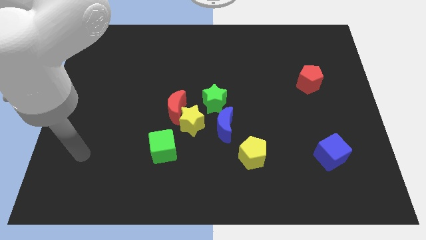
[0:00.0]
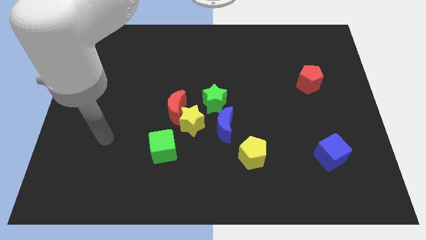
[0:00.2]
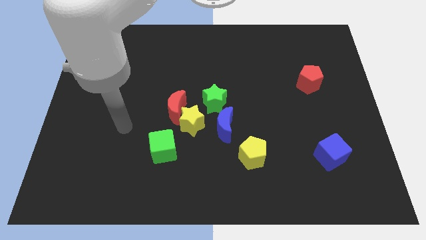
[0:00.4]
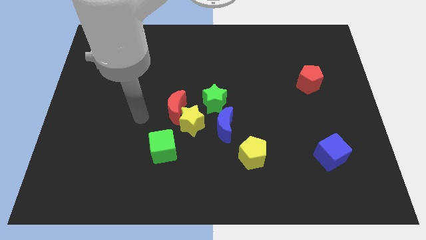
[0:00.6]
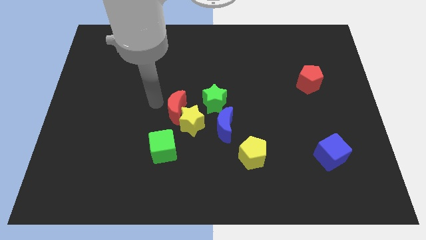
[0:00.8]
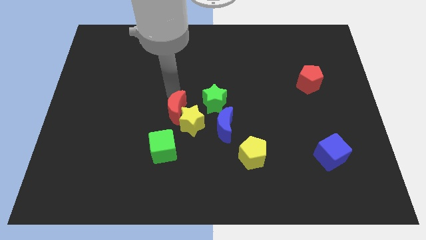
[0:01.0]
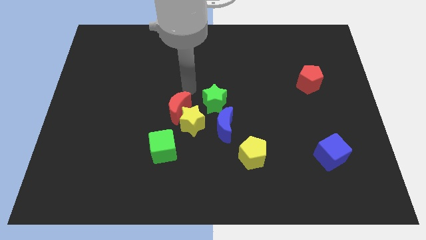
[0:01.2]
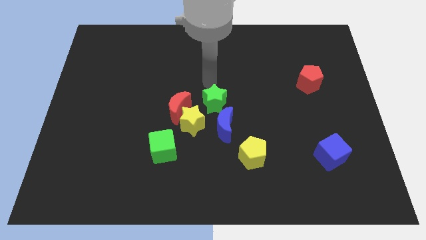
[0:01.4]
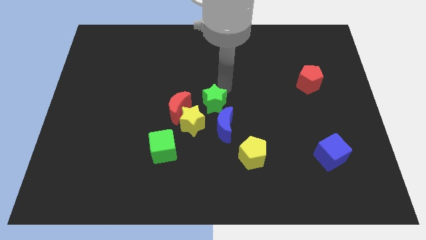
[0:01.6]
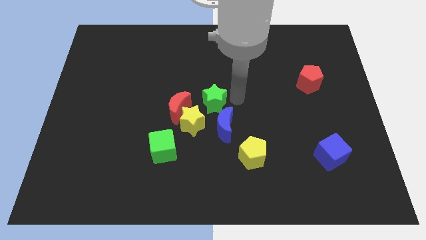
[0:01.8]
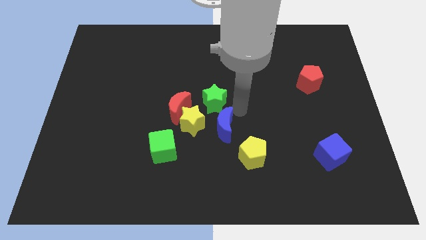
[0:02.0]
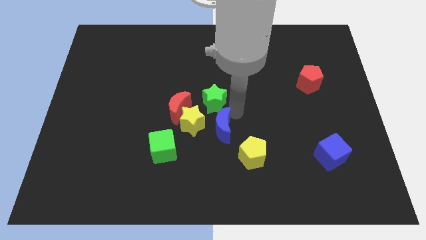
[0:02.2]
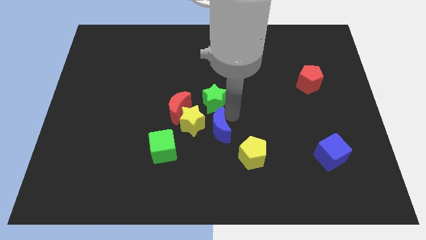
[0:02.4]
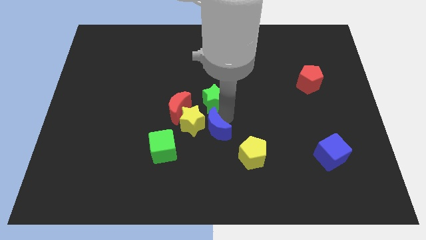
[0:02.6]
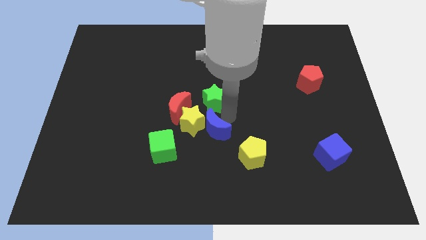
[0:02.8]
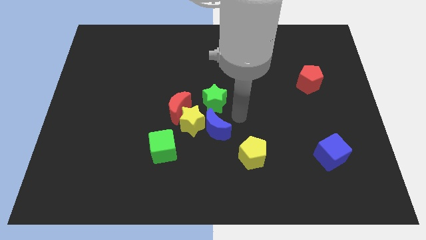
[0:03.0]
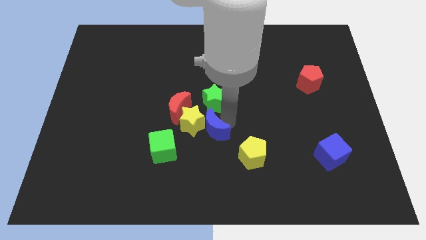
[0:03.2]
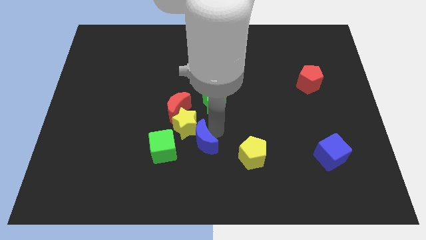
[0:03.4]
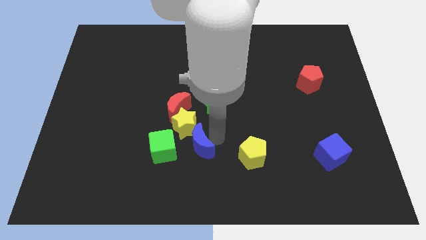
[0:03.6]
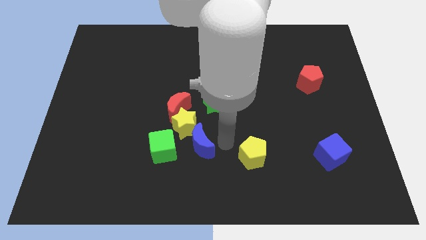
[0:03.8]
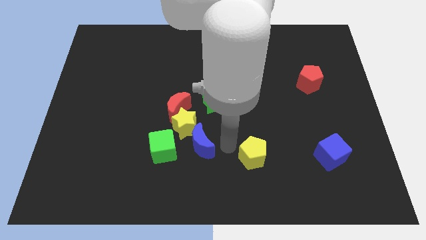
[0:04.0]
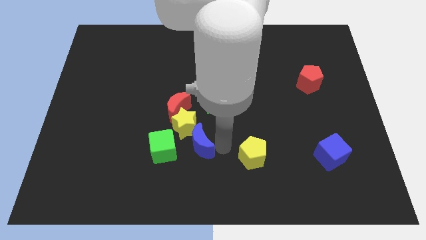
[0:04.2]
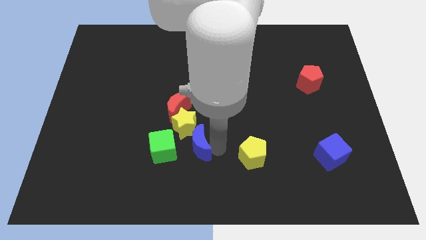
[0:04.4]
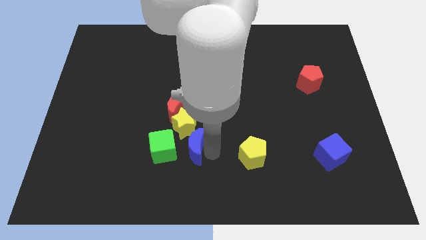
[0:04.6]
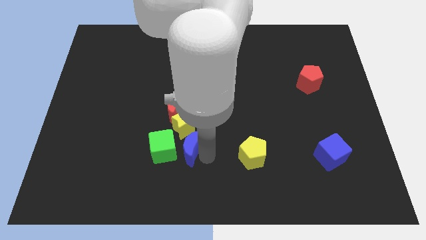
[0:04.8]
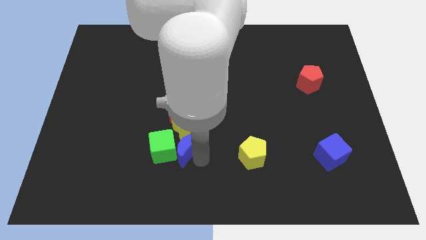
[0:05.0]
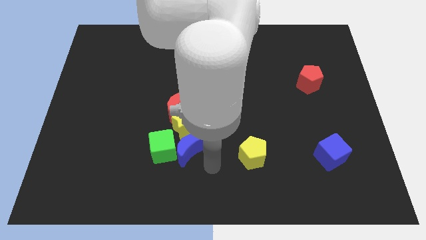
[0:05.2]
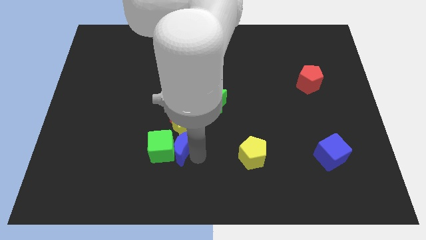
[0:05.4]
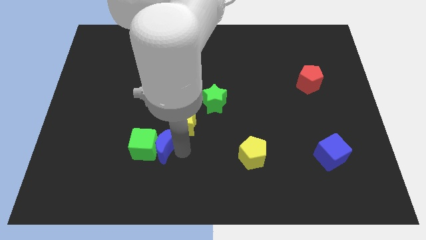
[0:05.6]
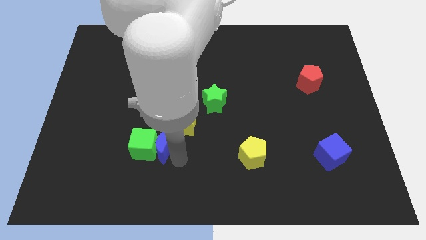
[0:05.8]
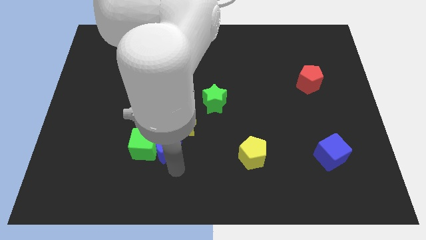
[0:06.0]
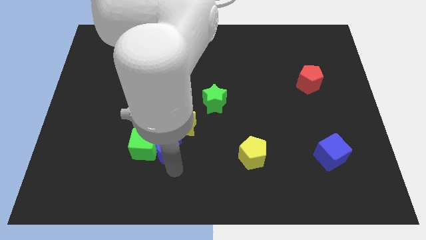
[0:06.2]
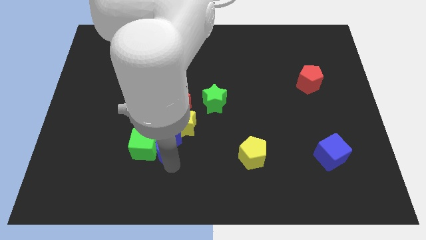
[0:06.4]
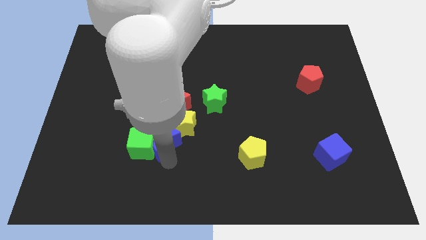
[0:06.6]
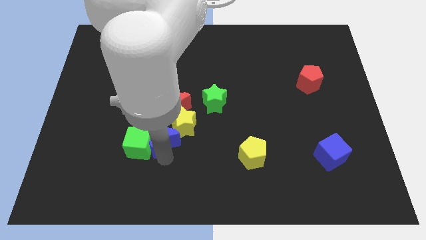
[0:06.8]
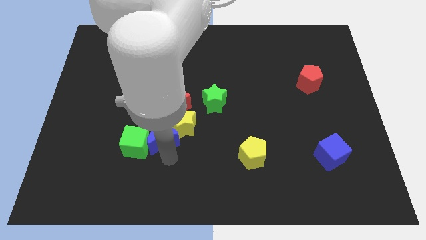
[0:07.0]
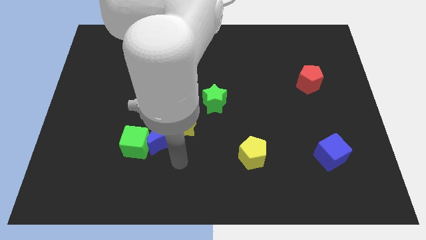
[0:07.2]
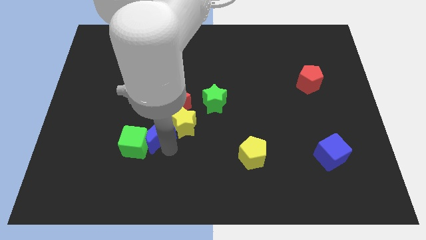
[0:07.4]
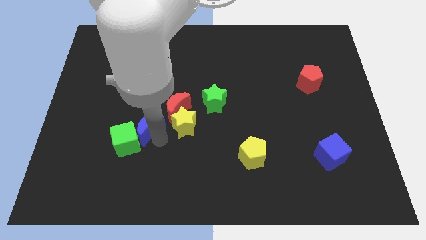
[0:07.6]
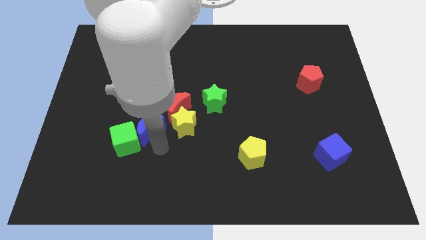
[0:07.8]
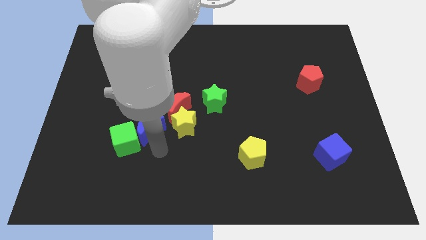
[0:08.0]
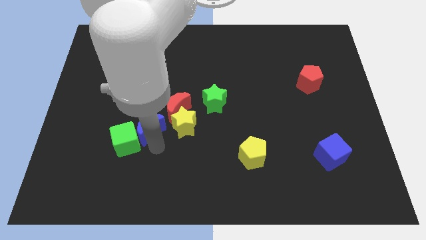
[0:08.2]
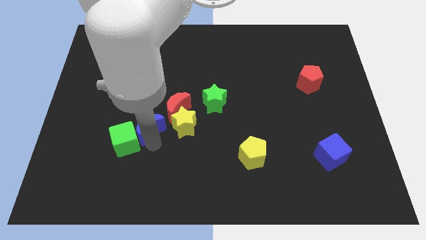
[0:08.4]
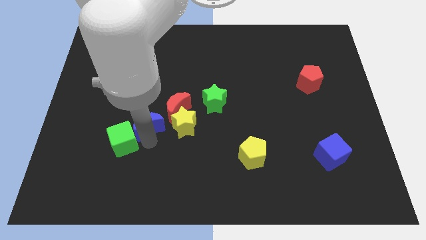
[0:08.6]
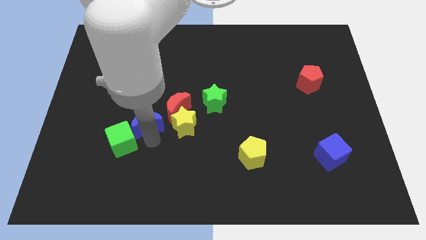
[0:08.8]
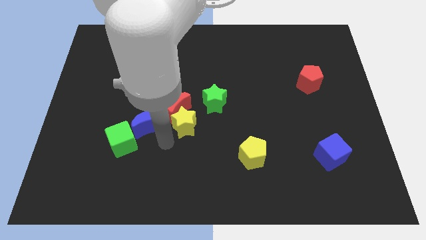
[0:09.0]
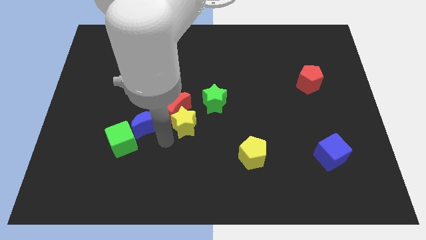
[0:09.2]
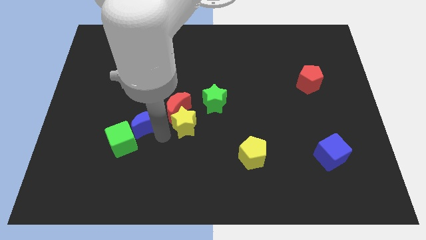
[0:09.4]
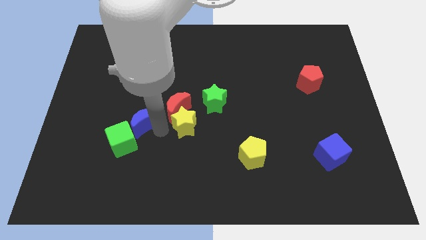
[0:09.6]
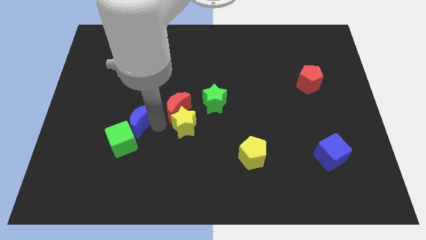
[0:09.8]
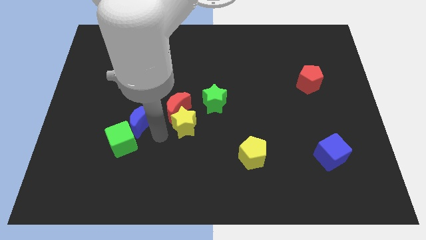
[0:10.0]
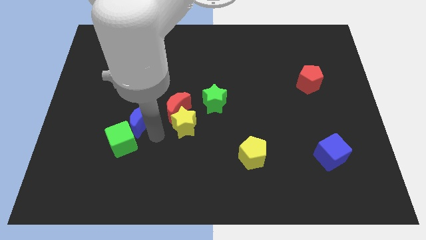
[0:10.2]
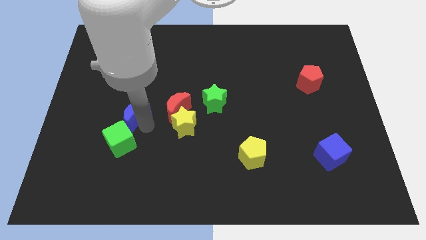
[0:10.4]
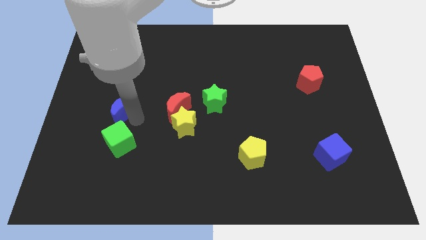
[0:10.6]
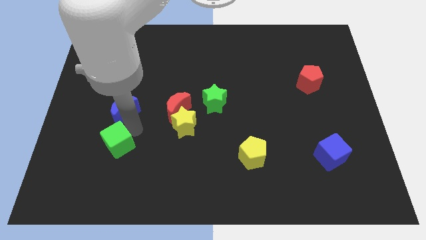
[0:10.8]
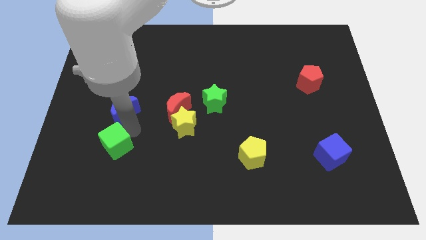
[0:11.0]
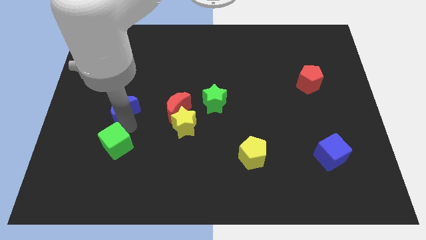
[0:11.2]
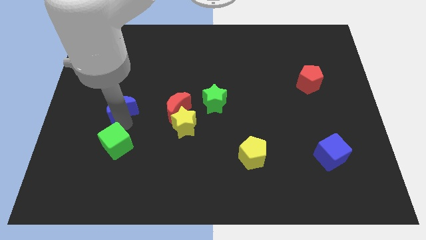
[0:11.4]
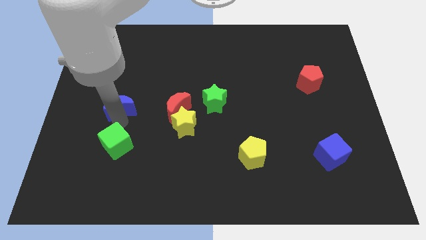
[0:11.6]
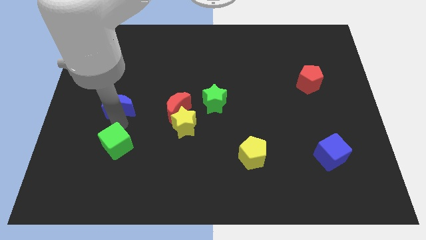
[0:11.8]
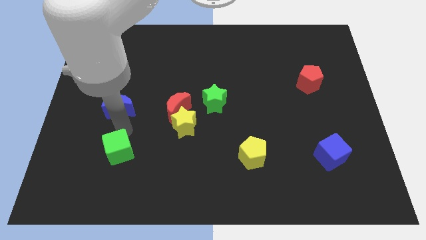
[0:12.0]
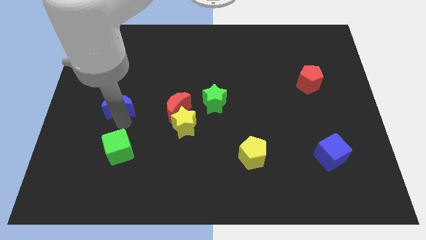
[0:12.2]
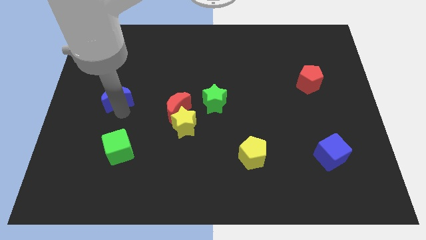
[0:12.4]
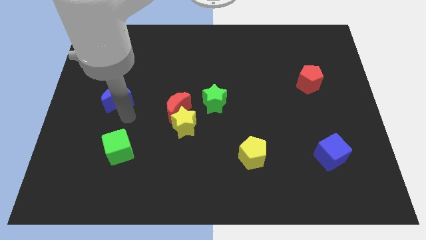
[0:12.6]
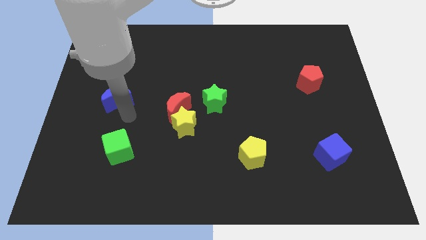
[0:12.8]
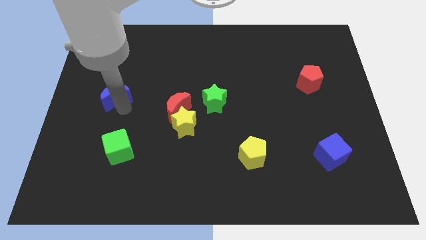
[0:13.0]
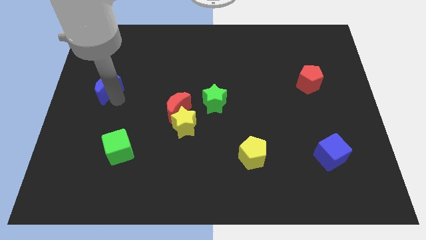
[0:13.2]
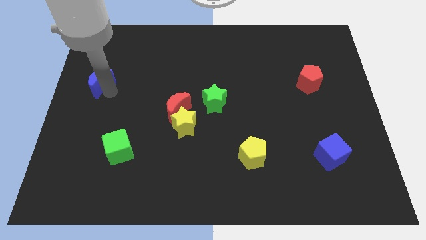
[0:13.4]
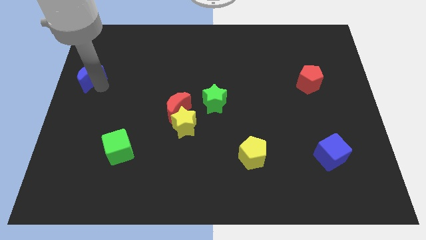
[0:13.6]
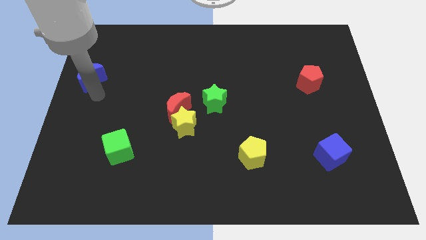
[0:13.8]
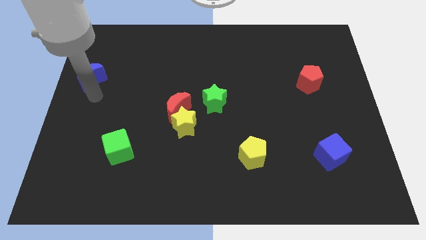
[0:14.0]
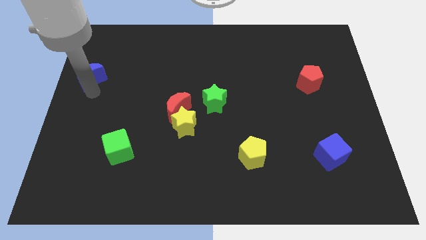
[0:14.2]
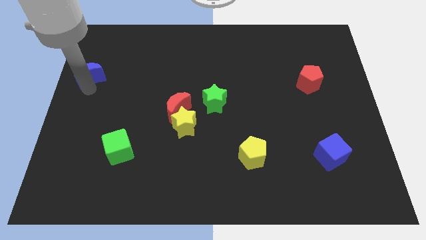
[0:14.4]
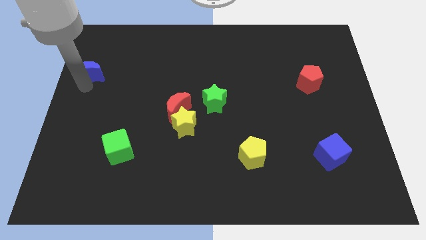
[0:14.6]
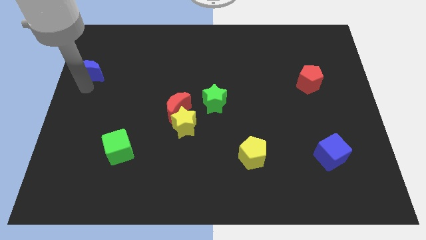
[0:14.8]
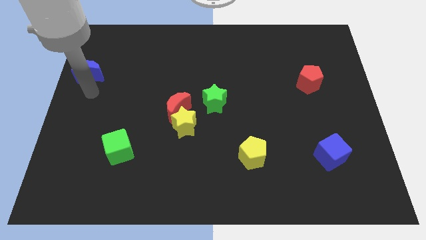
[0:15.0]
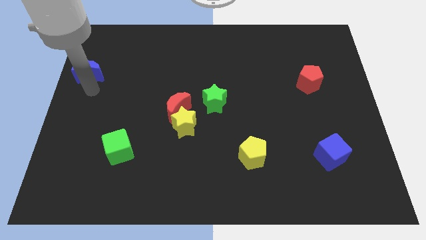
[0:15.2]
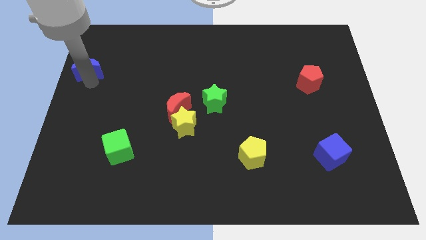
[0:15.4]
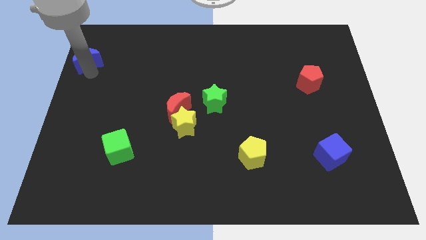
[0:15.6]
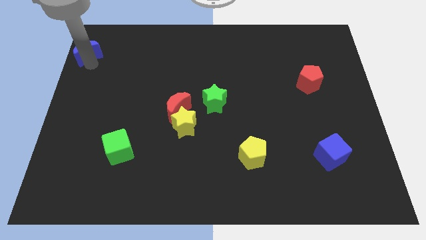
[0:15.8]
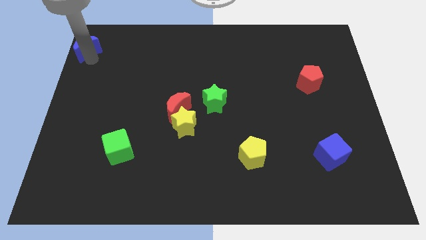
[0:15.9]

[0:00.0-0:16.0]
push the blue moon to the top left corner
